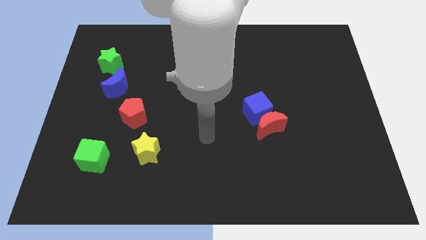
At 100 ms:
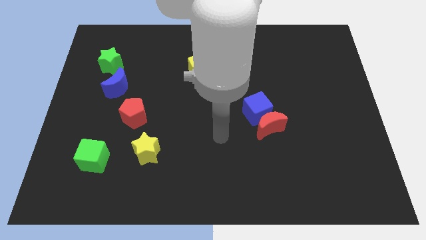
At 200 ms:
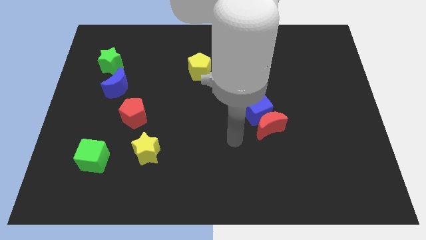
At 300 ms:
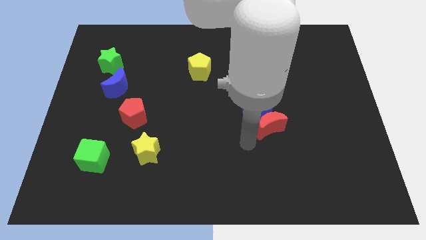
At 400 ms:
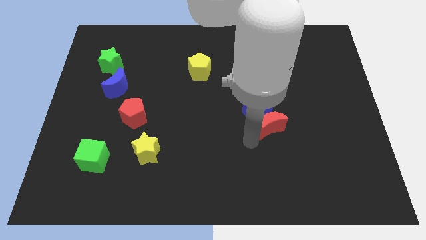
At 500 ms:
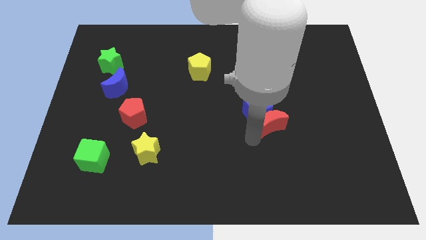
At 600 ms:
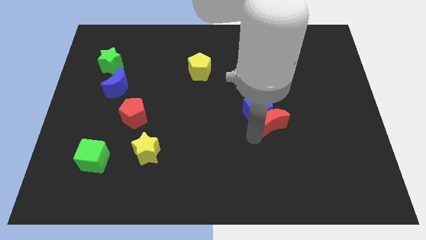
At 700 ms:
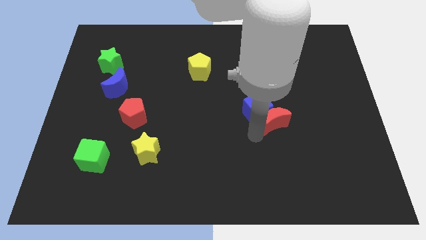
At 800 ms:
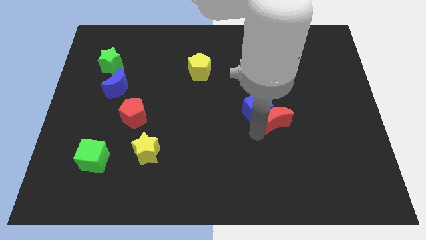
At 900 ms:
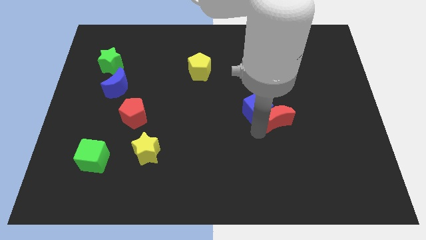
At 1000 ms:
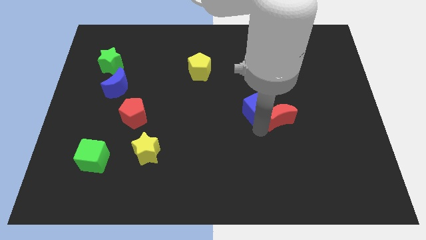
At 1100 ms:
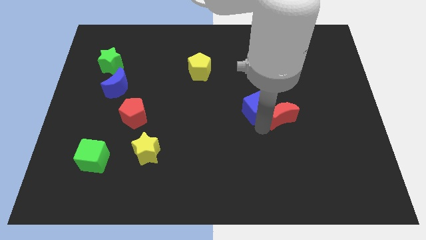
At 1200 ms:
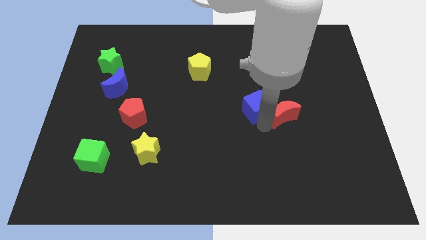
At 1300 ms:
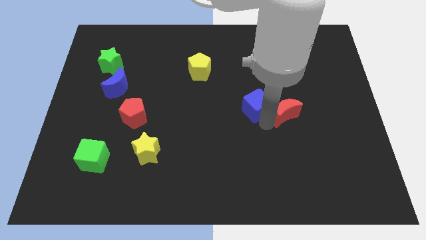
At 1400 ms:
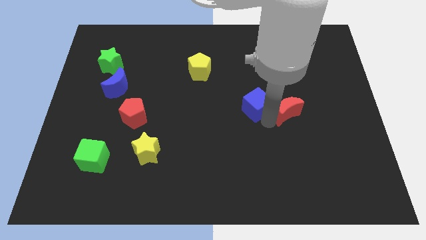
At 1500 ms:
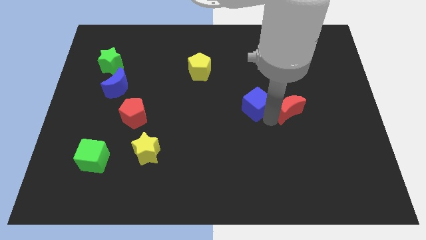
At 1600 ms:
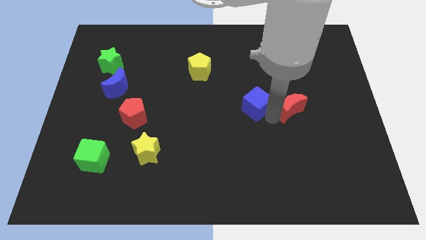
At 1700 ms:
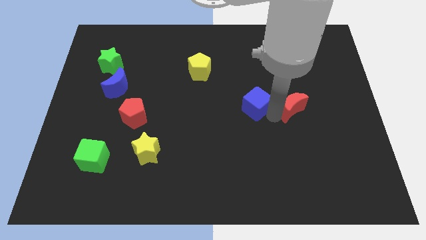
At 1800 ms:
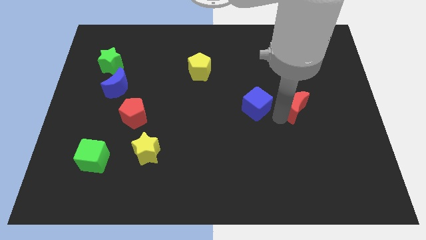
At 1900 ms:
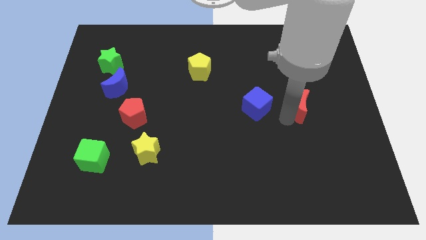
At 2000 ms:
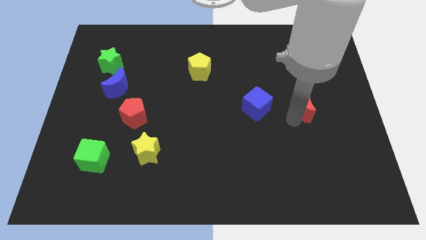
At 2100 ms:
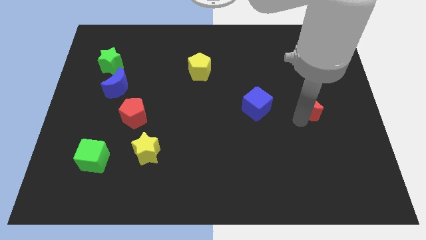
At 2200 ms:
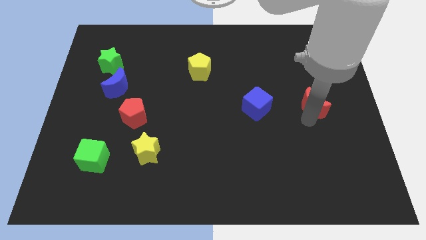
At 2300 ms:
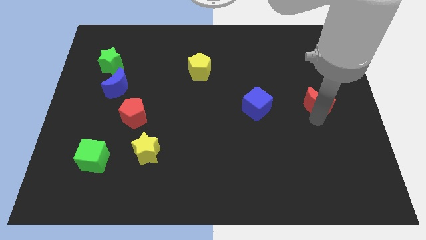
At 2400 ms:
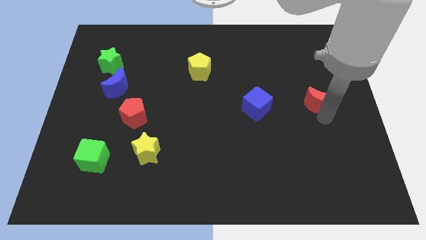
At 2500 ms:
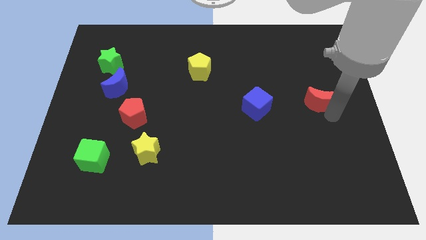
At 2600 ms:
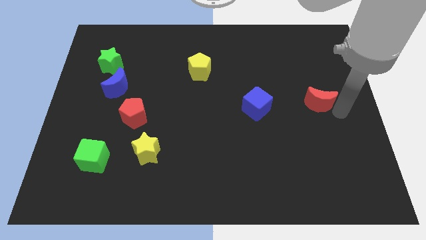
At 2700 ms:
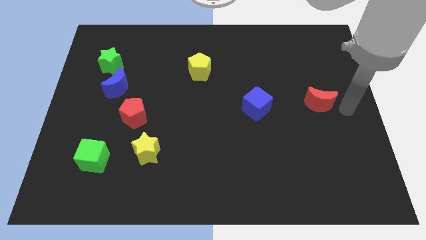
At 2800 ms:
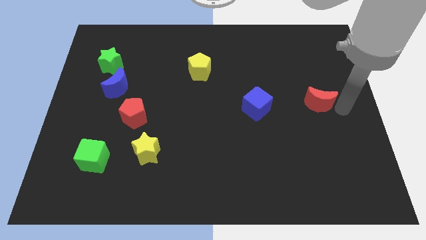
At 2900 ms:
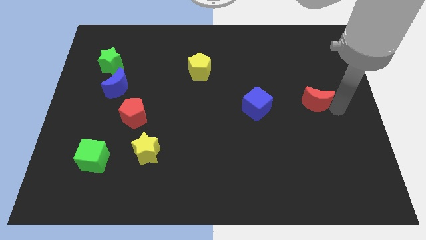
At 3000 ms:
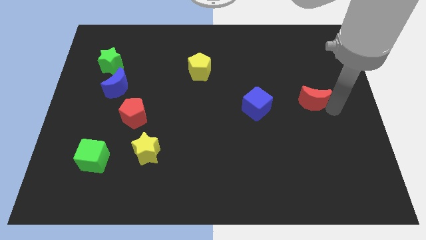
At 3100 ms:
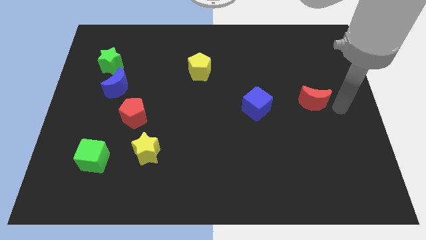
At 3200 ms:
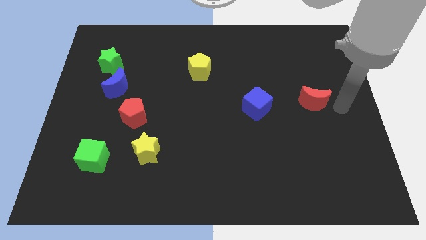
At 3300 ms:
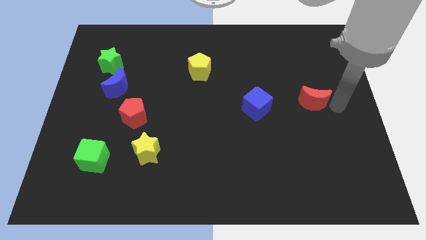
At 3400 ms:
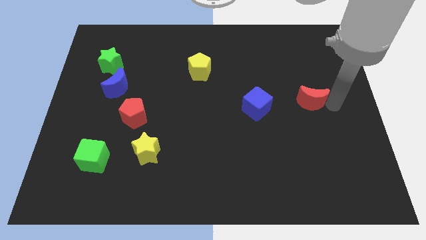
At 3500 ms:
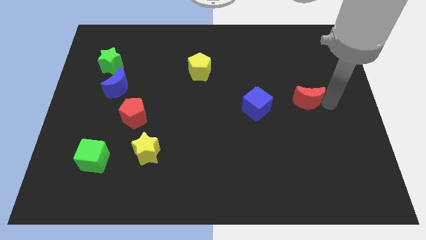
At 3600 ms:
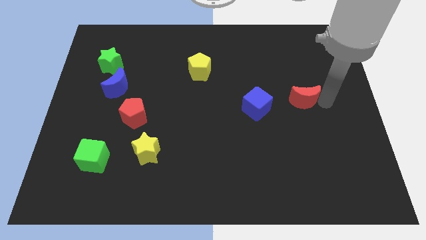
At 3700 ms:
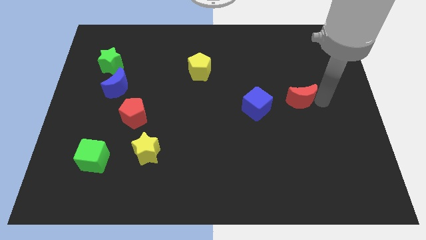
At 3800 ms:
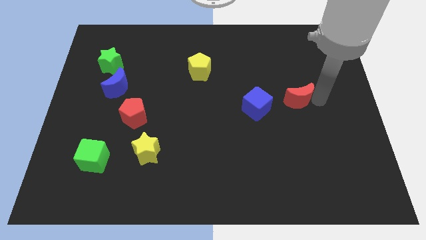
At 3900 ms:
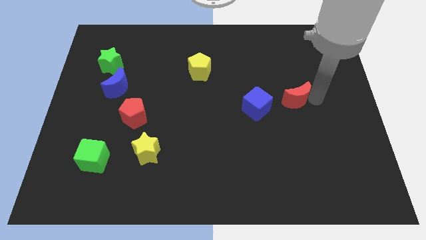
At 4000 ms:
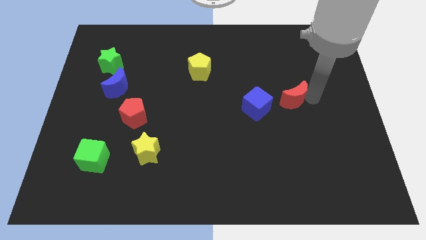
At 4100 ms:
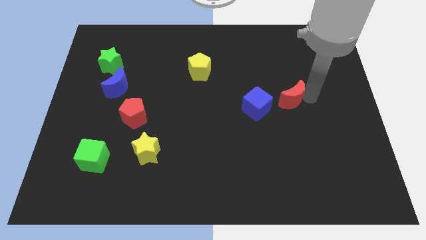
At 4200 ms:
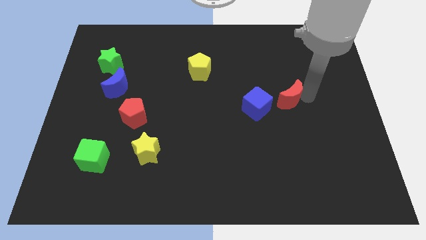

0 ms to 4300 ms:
push the red moon upwards slightly

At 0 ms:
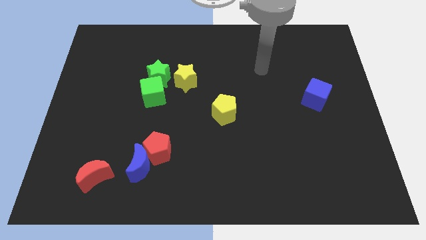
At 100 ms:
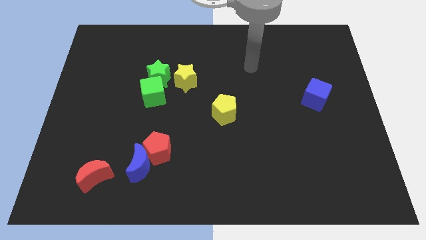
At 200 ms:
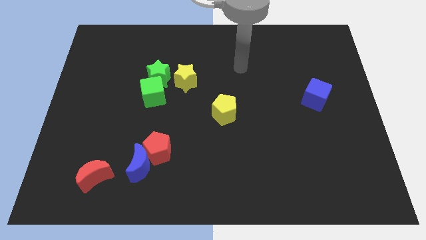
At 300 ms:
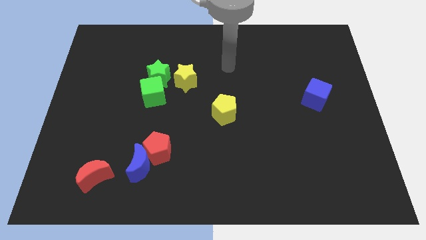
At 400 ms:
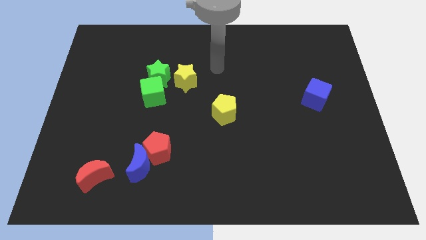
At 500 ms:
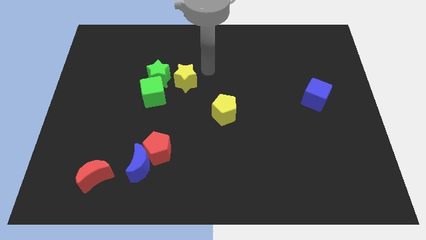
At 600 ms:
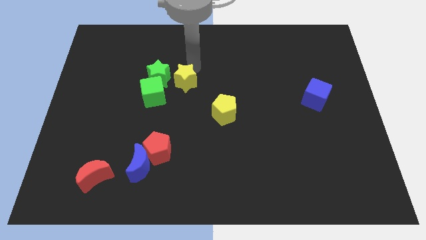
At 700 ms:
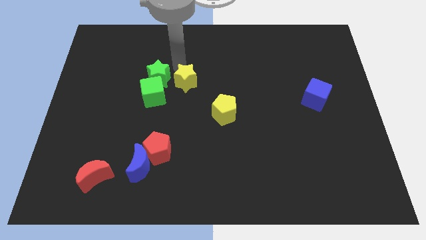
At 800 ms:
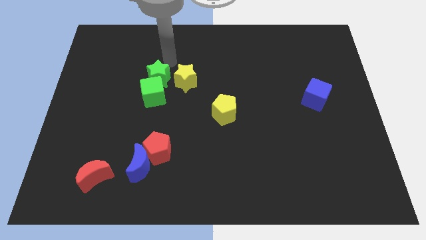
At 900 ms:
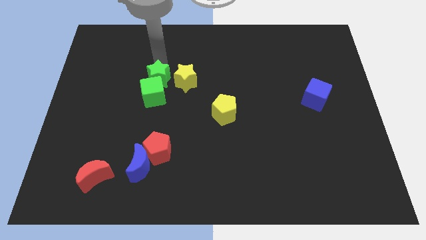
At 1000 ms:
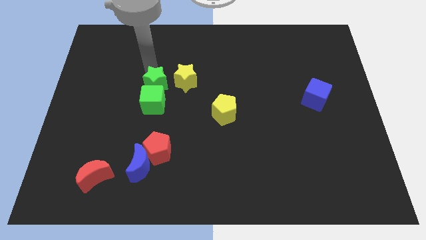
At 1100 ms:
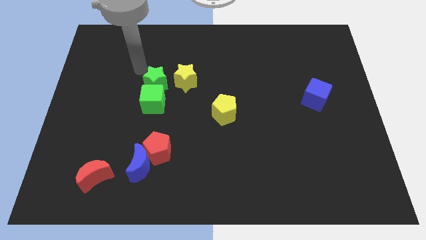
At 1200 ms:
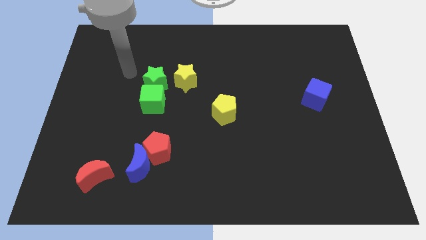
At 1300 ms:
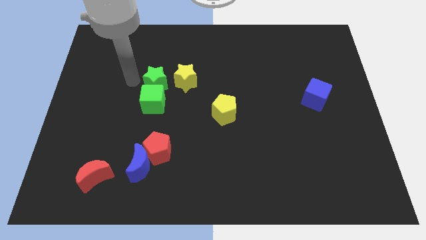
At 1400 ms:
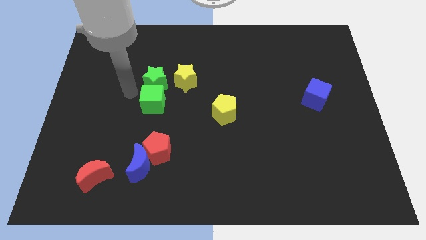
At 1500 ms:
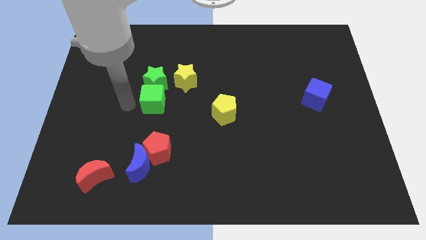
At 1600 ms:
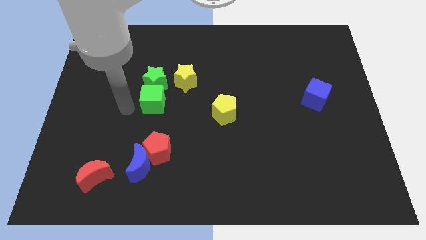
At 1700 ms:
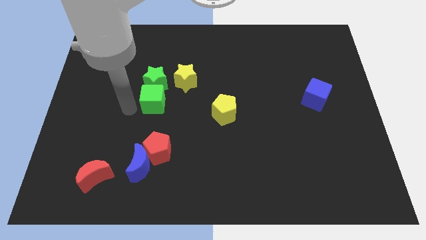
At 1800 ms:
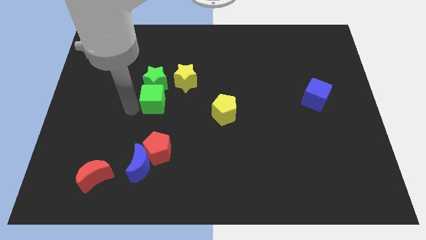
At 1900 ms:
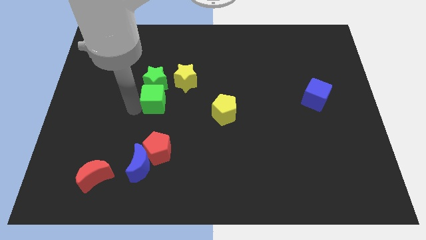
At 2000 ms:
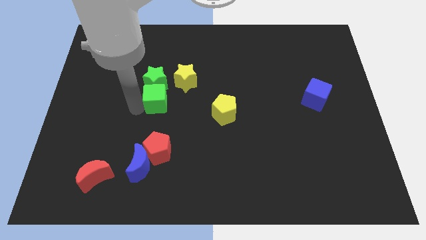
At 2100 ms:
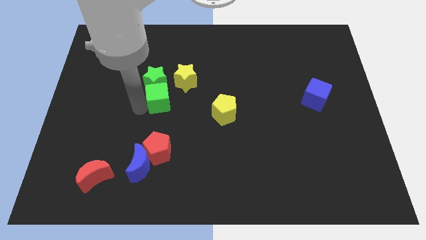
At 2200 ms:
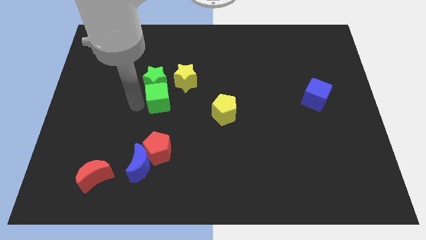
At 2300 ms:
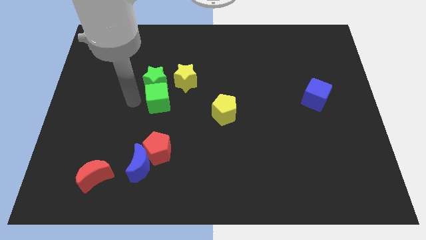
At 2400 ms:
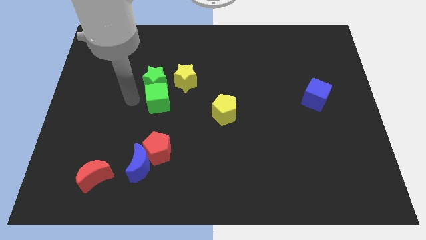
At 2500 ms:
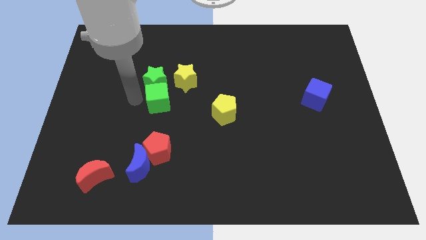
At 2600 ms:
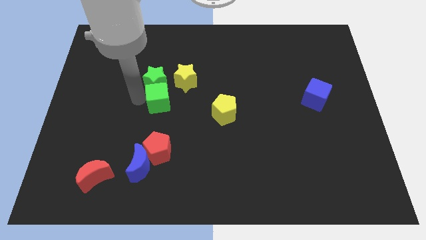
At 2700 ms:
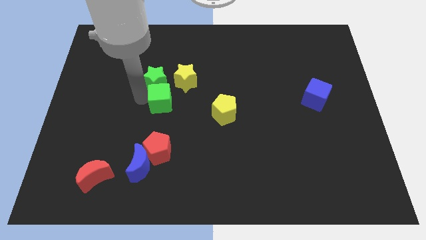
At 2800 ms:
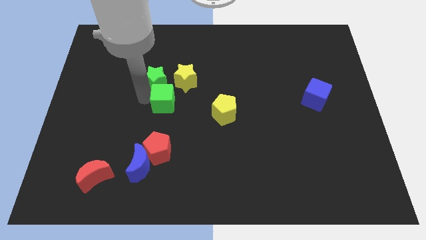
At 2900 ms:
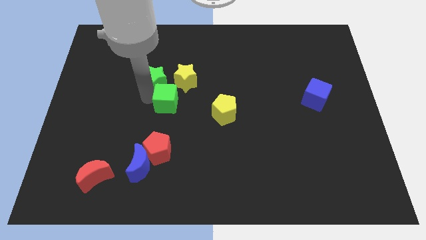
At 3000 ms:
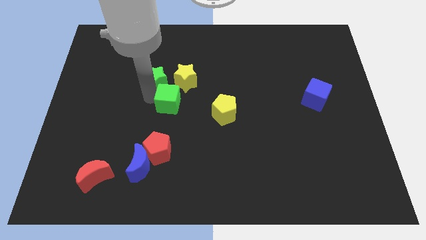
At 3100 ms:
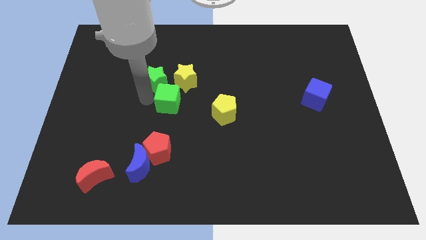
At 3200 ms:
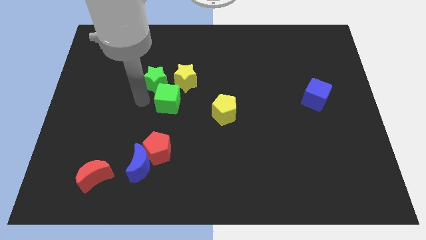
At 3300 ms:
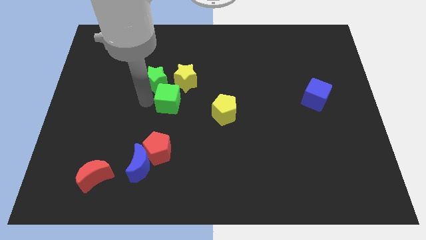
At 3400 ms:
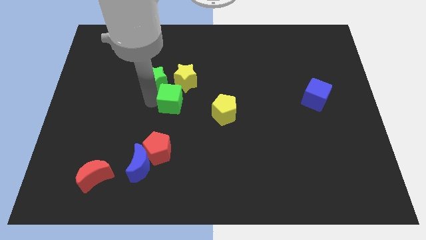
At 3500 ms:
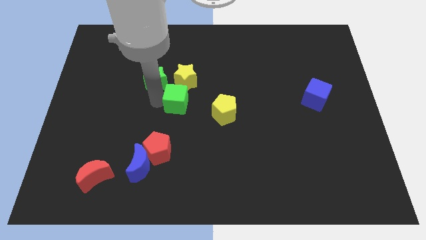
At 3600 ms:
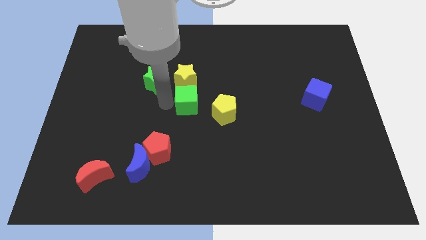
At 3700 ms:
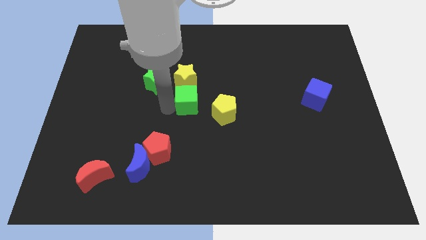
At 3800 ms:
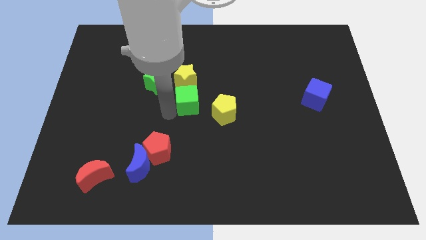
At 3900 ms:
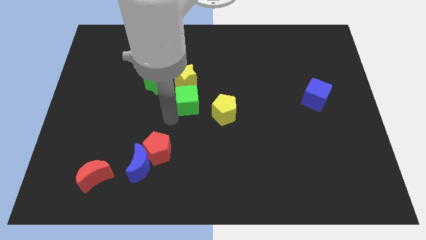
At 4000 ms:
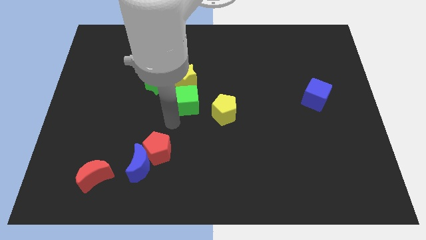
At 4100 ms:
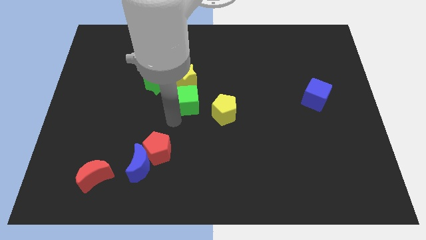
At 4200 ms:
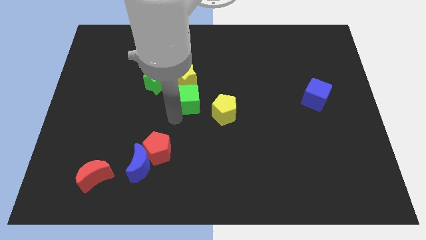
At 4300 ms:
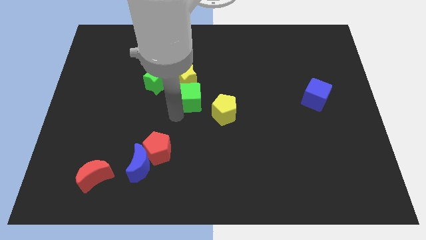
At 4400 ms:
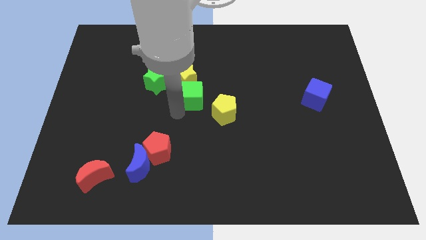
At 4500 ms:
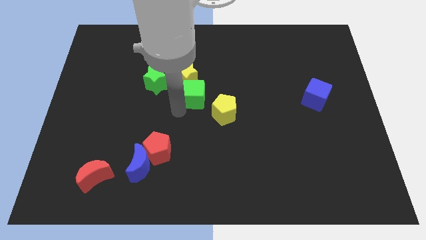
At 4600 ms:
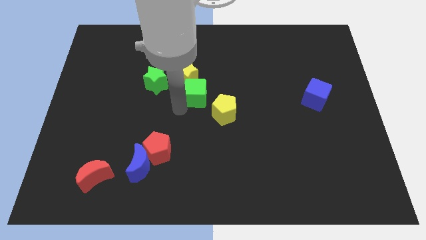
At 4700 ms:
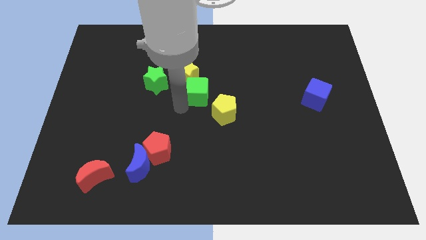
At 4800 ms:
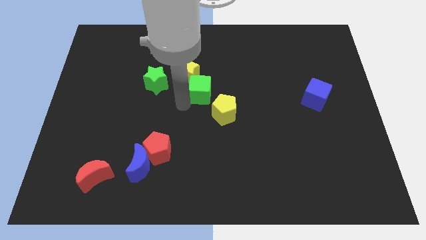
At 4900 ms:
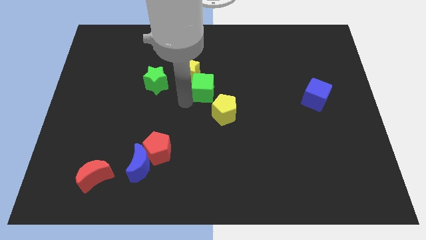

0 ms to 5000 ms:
push the green cube upwards and then to the right slightly
